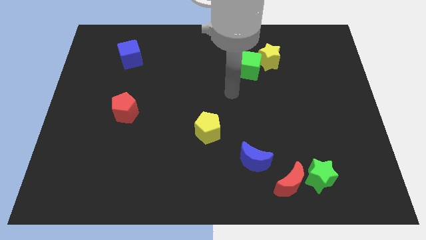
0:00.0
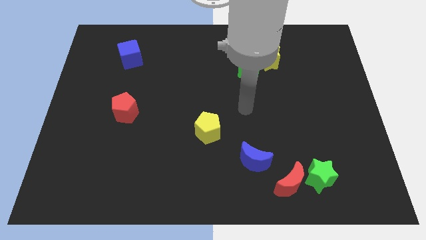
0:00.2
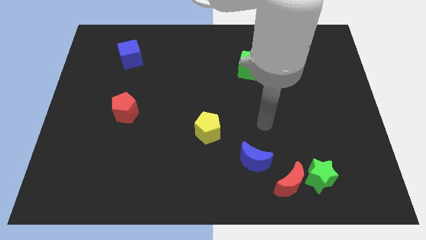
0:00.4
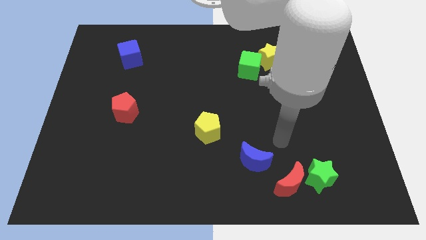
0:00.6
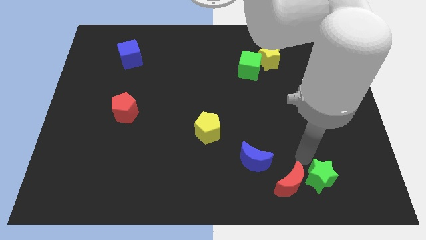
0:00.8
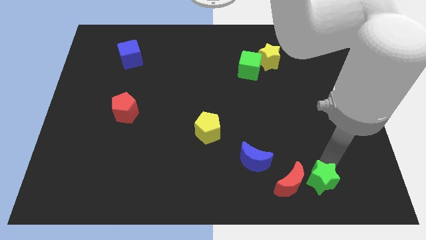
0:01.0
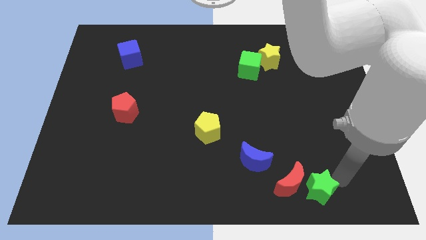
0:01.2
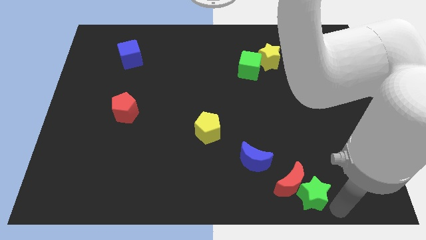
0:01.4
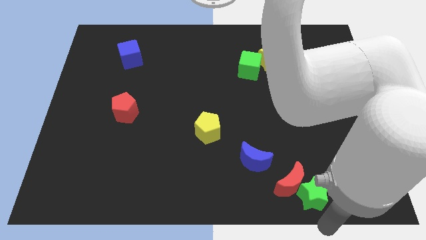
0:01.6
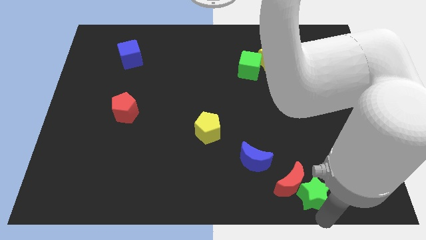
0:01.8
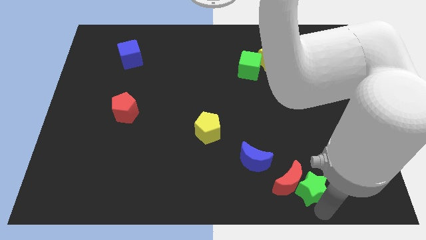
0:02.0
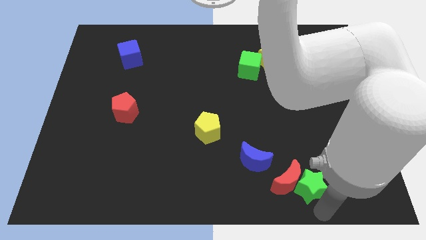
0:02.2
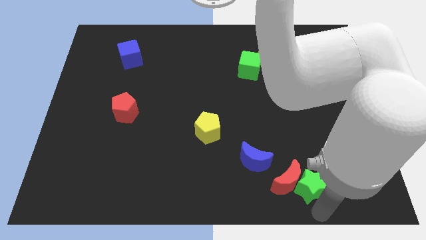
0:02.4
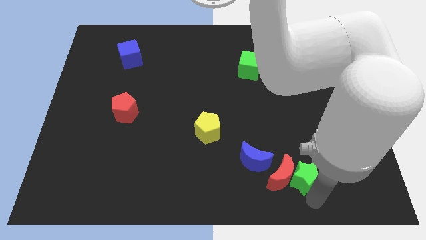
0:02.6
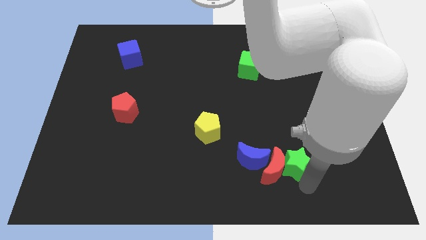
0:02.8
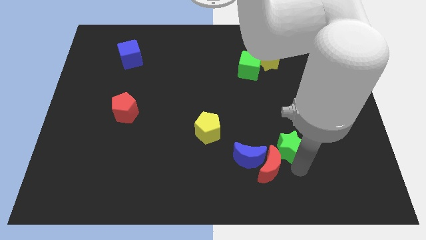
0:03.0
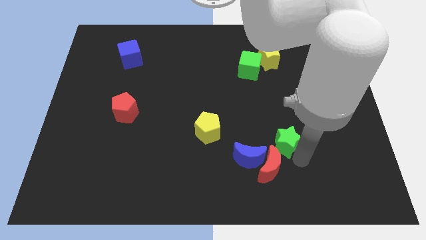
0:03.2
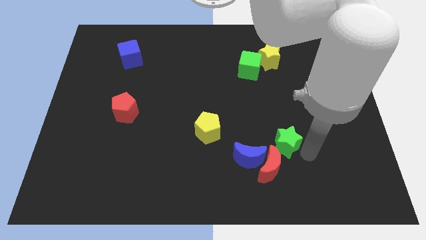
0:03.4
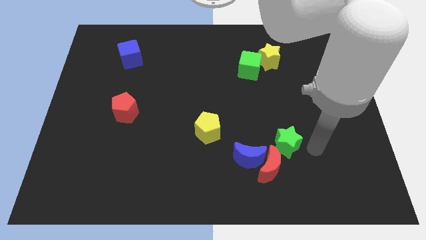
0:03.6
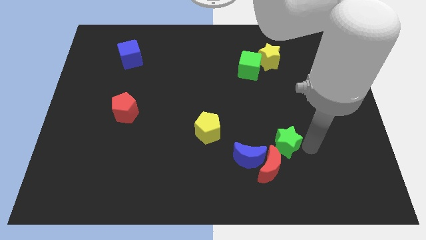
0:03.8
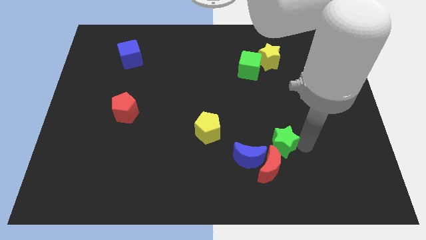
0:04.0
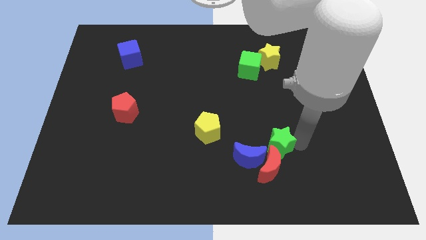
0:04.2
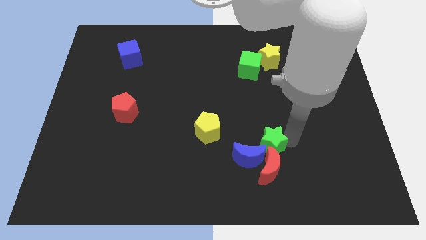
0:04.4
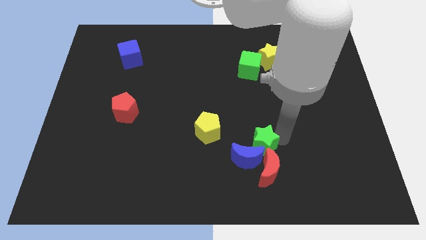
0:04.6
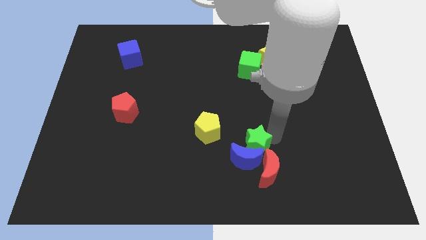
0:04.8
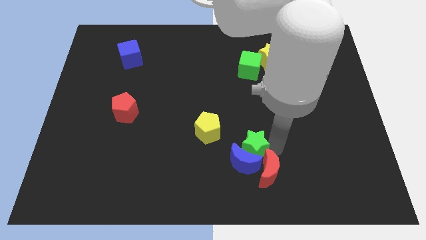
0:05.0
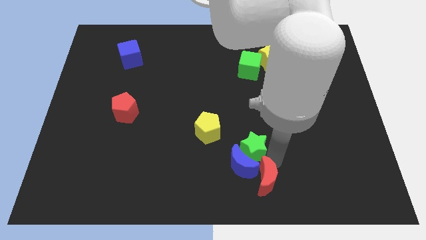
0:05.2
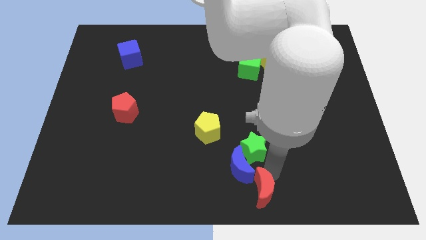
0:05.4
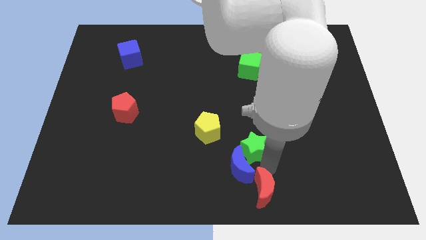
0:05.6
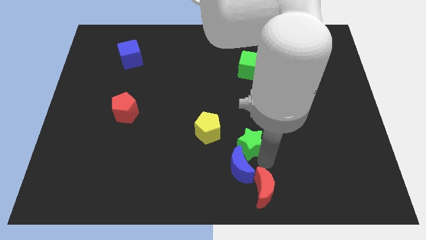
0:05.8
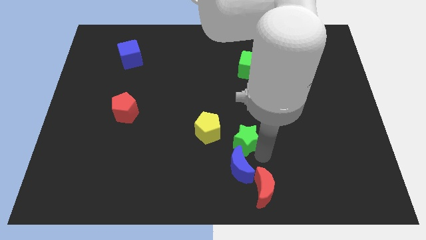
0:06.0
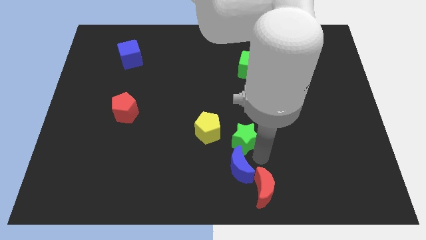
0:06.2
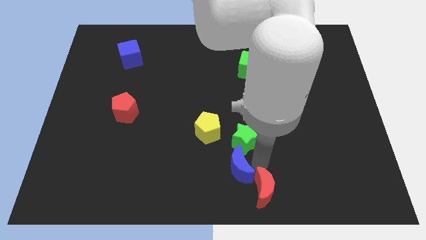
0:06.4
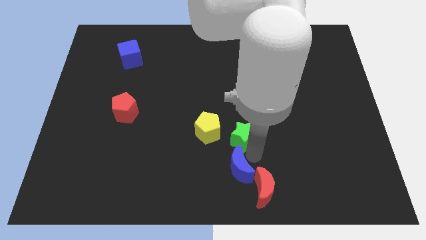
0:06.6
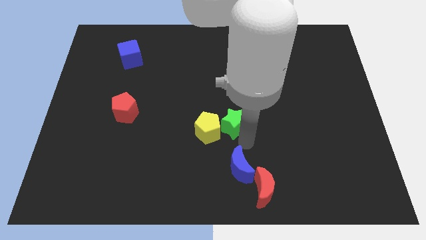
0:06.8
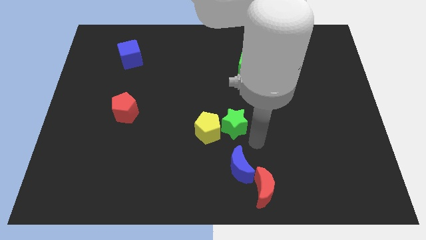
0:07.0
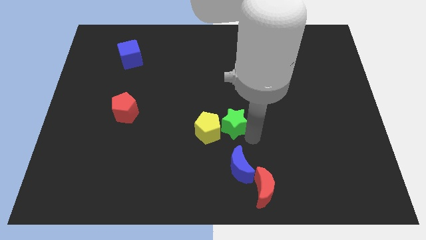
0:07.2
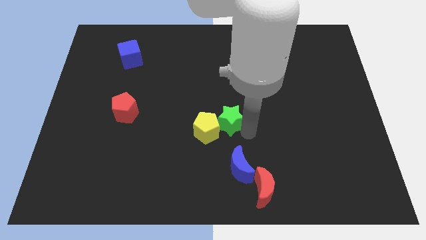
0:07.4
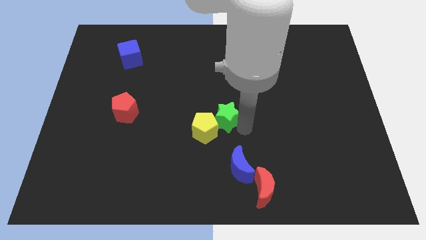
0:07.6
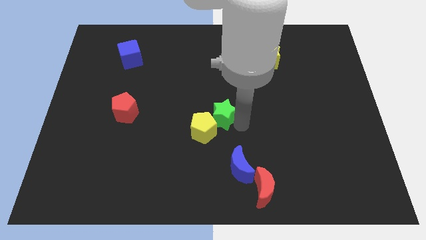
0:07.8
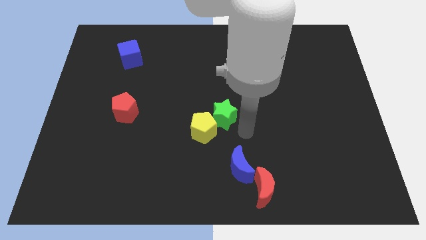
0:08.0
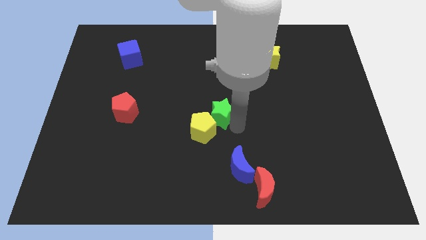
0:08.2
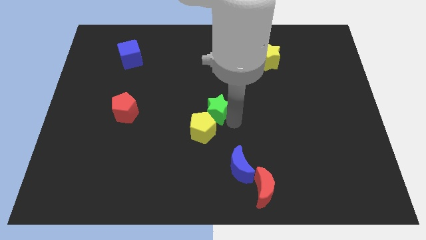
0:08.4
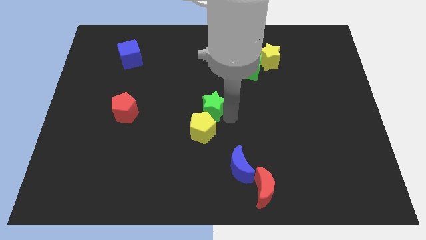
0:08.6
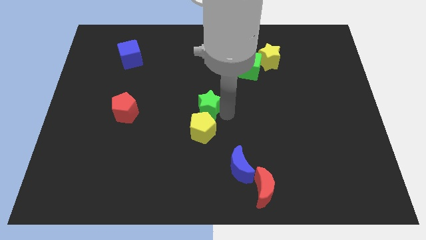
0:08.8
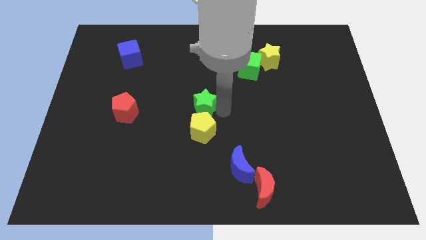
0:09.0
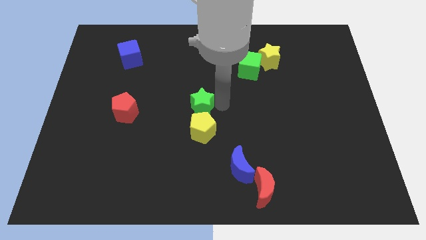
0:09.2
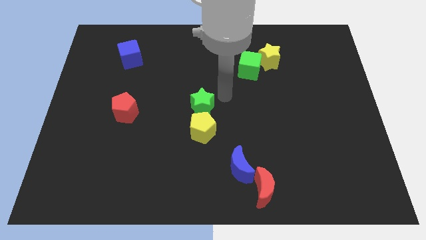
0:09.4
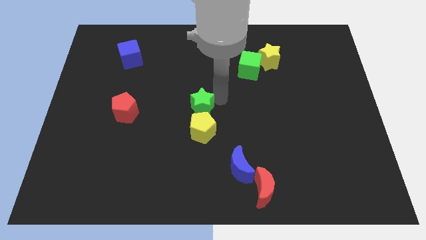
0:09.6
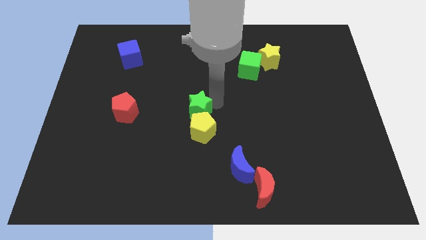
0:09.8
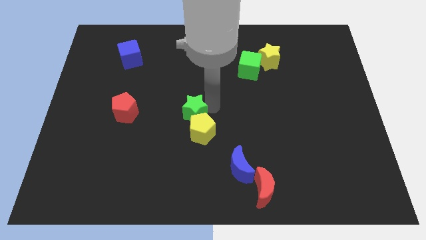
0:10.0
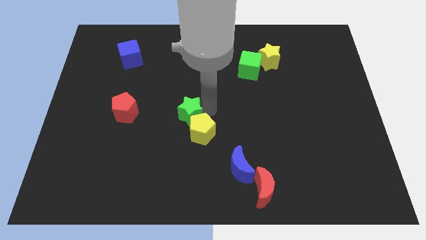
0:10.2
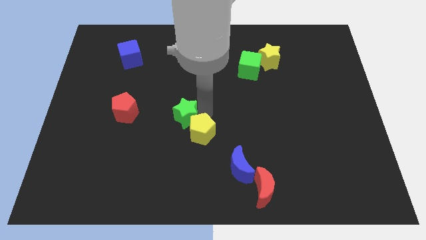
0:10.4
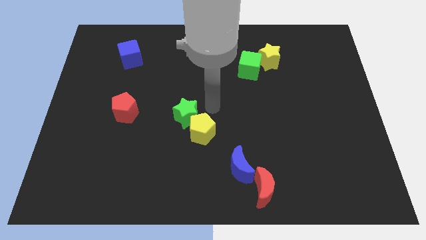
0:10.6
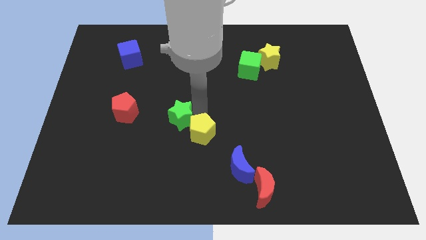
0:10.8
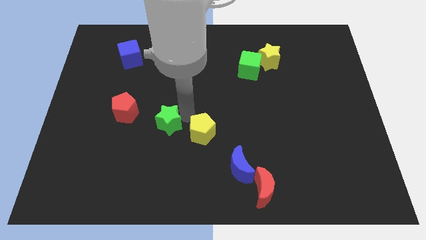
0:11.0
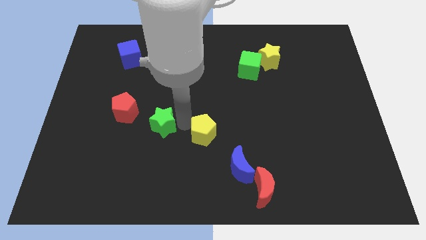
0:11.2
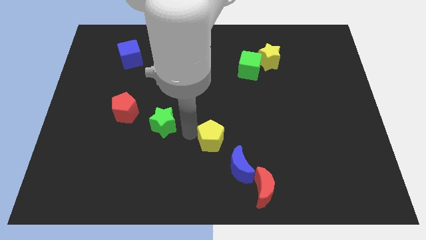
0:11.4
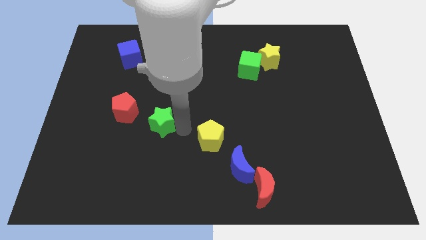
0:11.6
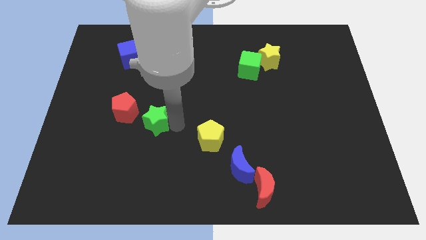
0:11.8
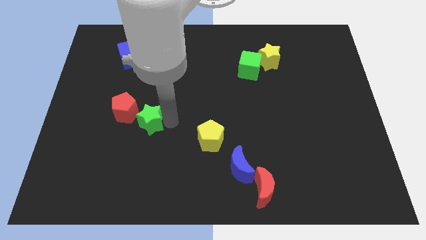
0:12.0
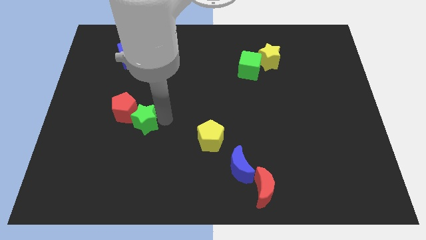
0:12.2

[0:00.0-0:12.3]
put the green star towards the red pentagon
